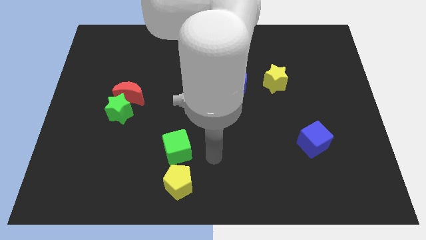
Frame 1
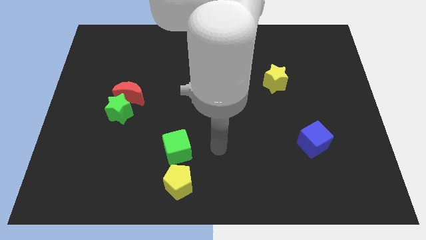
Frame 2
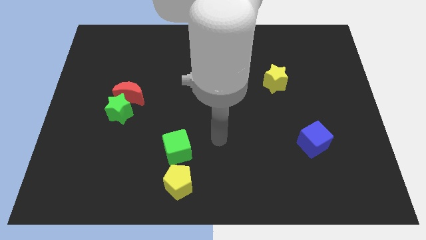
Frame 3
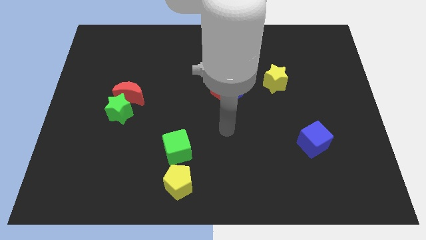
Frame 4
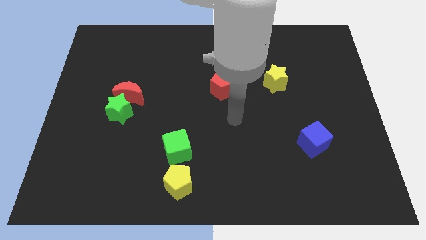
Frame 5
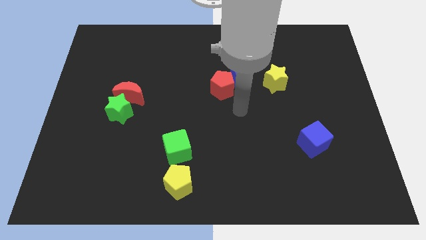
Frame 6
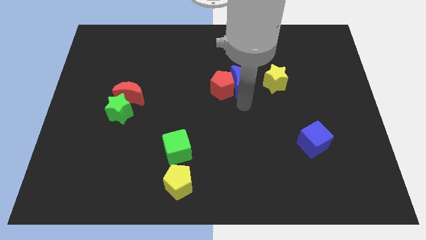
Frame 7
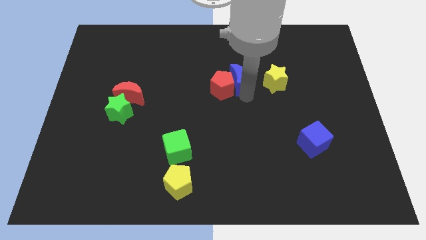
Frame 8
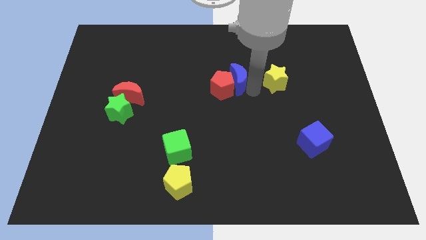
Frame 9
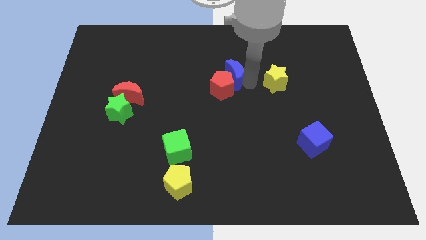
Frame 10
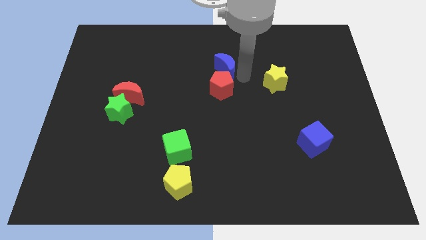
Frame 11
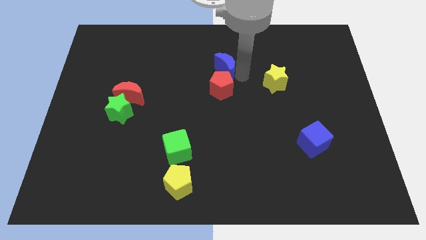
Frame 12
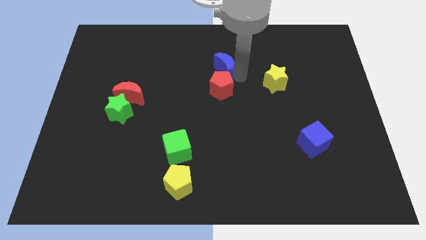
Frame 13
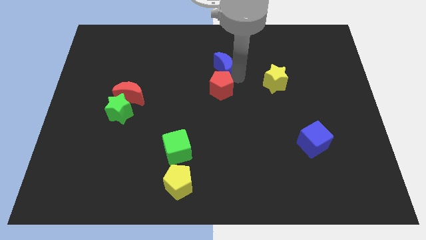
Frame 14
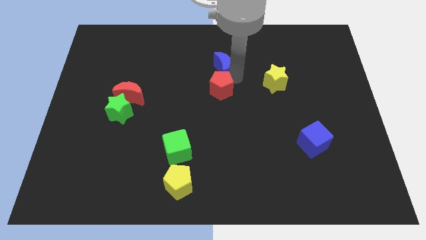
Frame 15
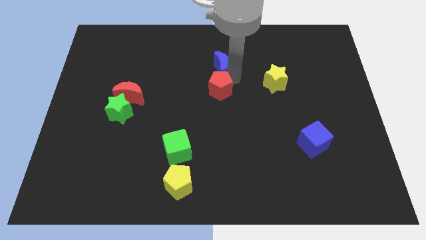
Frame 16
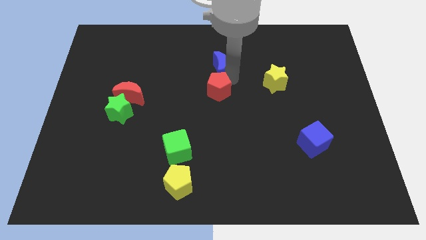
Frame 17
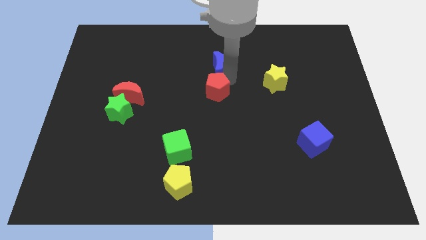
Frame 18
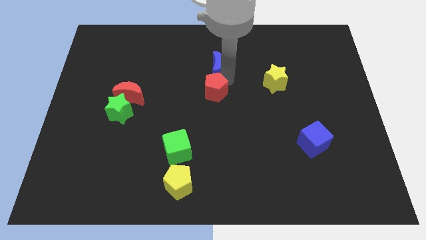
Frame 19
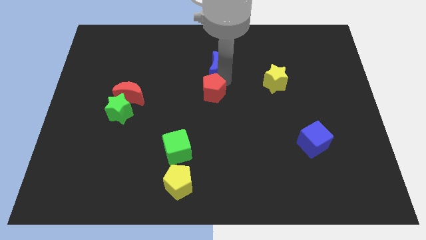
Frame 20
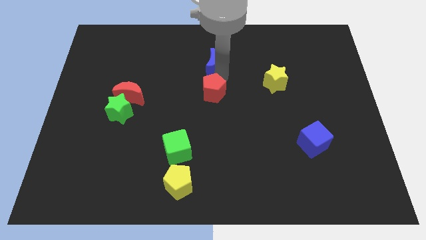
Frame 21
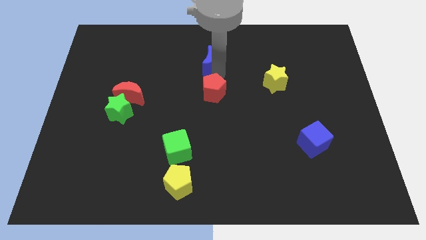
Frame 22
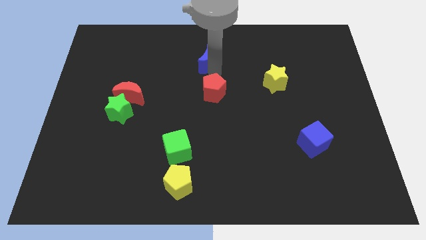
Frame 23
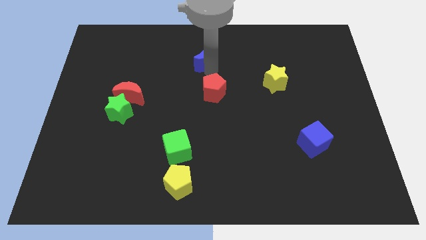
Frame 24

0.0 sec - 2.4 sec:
move the red pentagon away from the blue moon

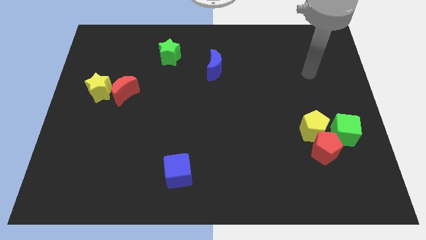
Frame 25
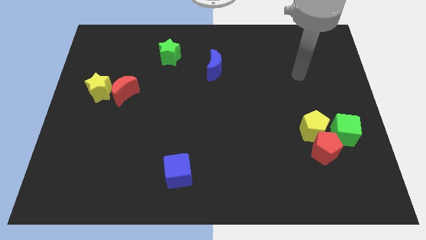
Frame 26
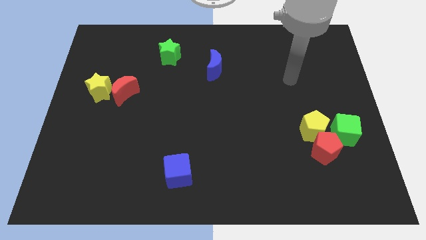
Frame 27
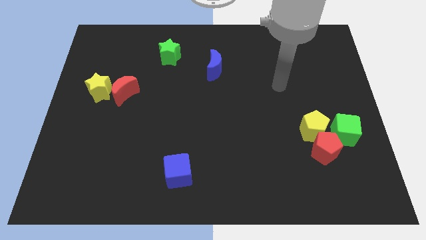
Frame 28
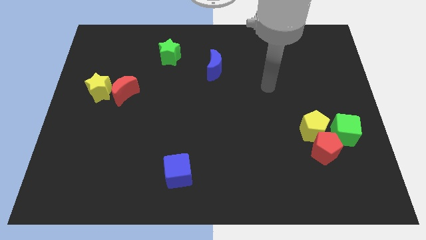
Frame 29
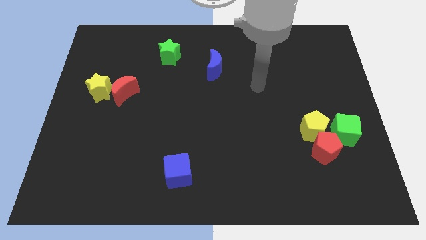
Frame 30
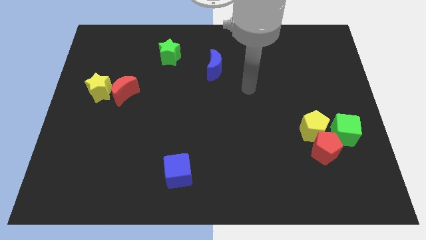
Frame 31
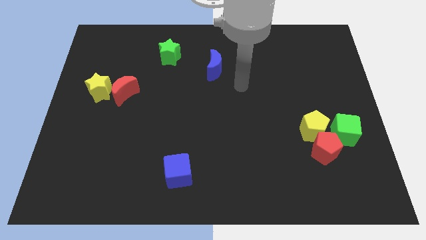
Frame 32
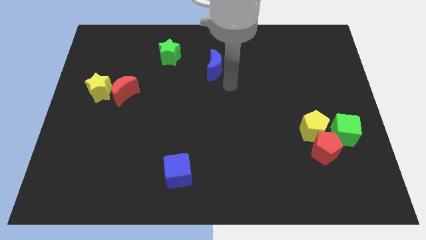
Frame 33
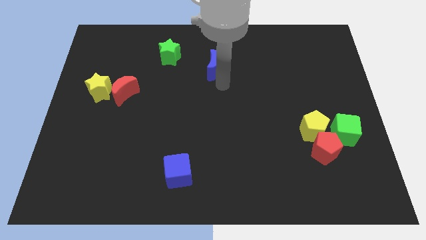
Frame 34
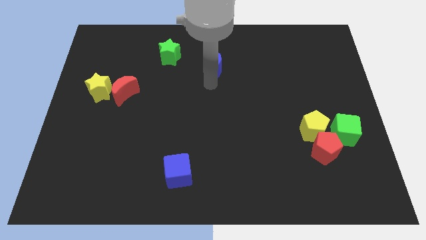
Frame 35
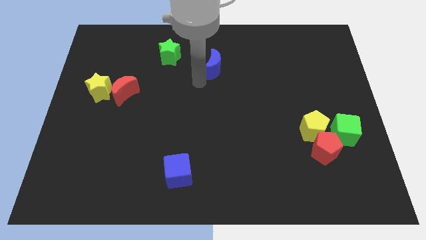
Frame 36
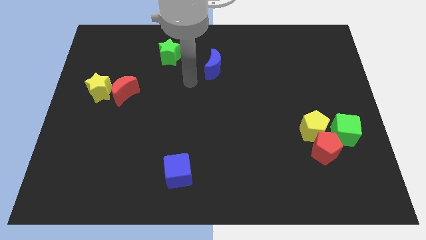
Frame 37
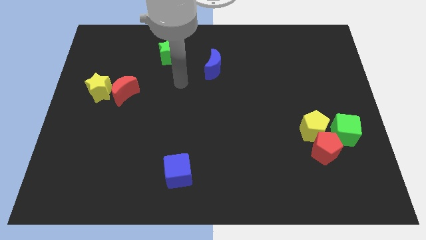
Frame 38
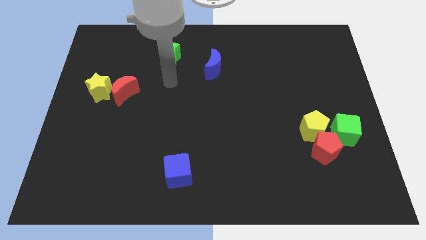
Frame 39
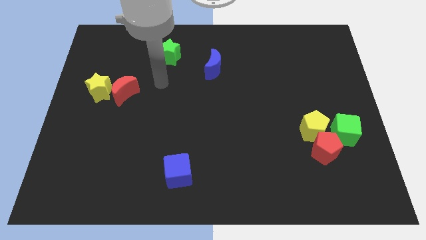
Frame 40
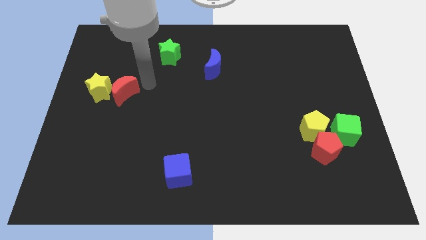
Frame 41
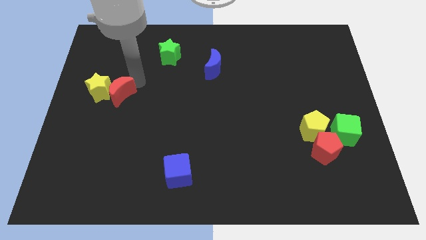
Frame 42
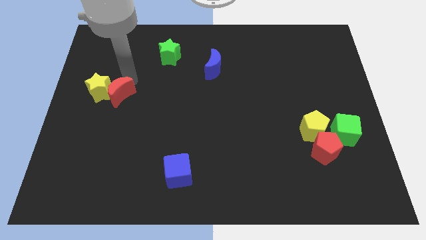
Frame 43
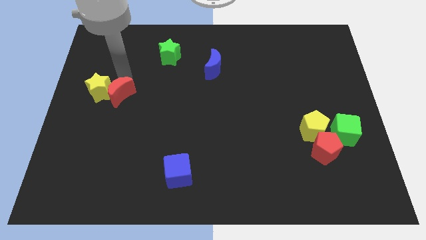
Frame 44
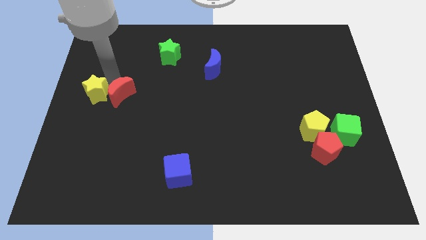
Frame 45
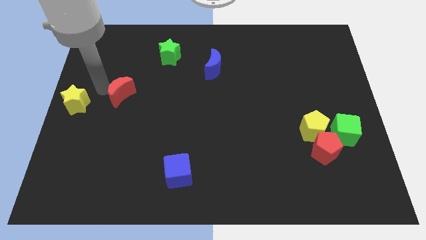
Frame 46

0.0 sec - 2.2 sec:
separate the red moon from the yellow star

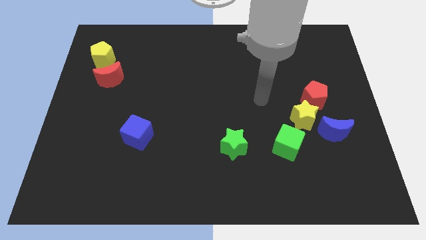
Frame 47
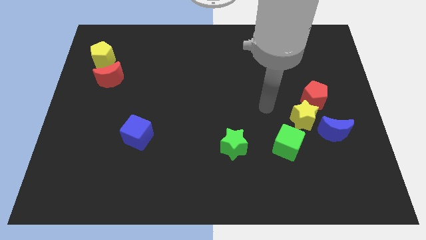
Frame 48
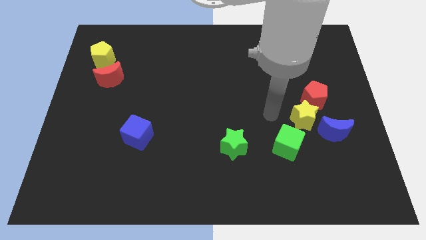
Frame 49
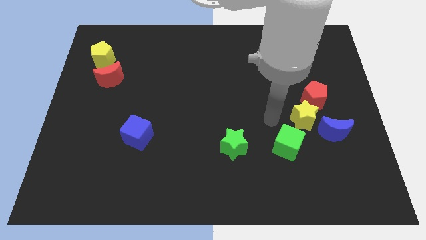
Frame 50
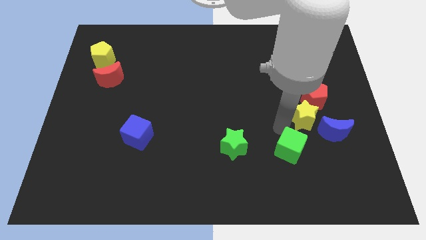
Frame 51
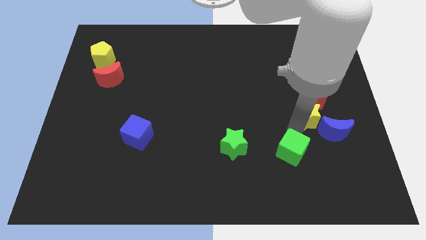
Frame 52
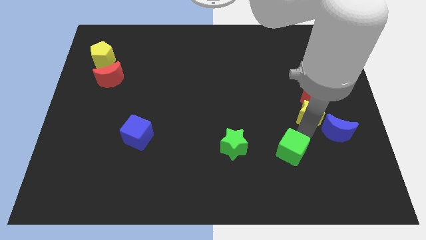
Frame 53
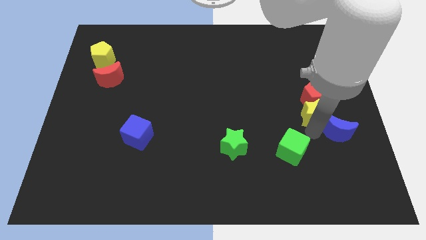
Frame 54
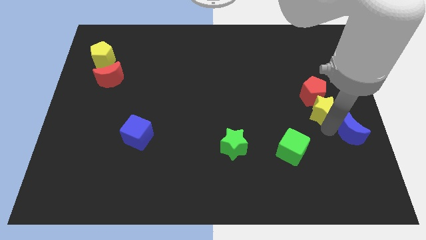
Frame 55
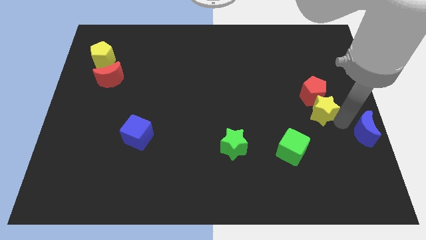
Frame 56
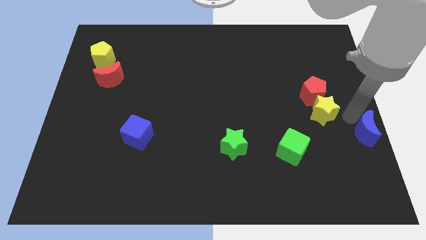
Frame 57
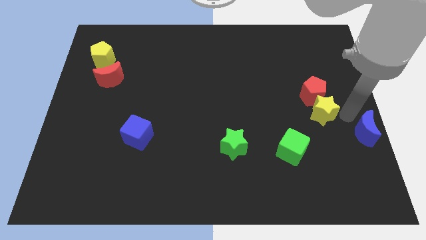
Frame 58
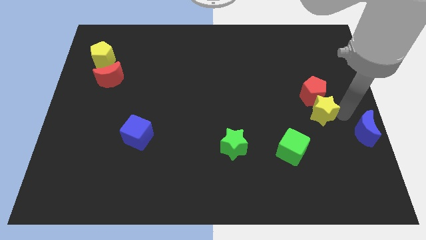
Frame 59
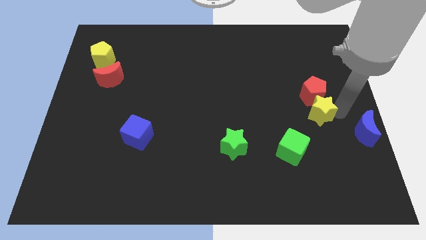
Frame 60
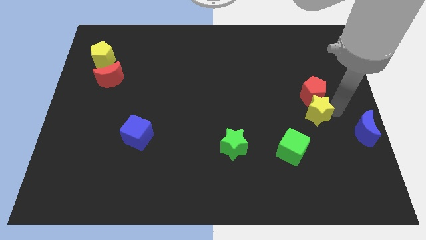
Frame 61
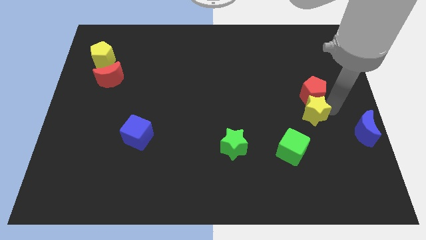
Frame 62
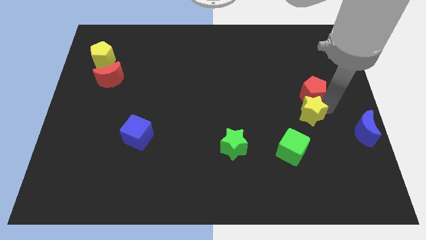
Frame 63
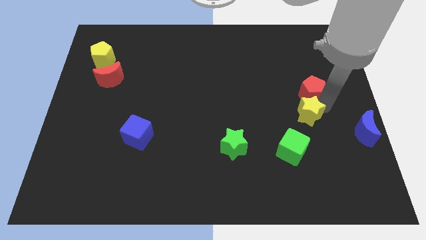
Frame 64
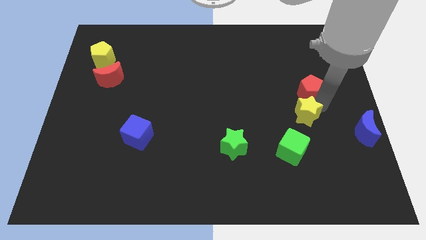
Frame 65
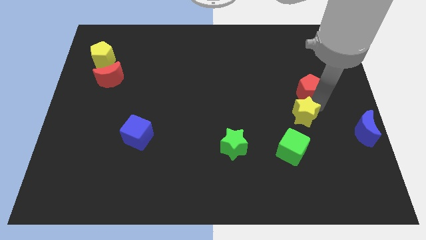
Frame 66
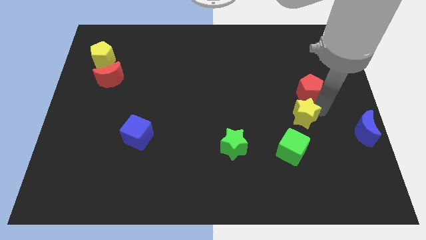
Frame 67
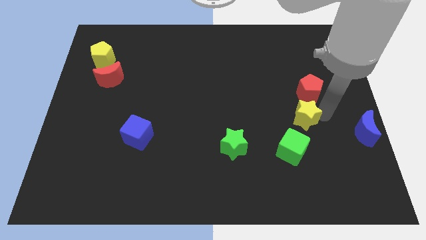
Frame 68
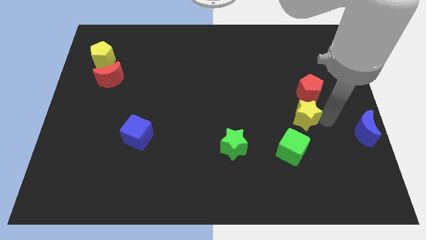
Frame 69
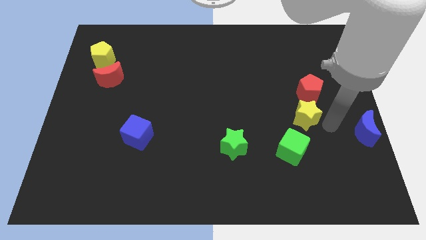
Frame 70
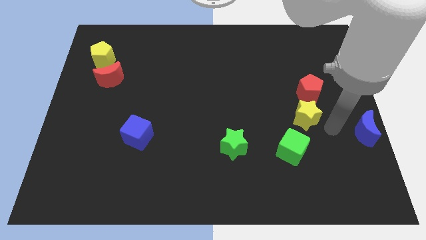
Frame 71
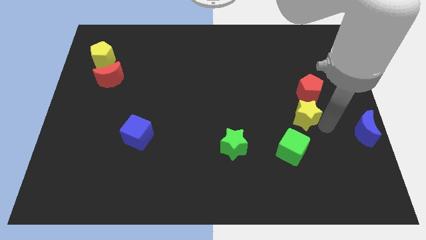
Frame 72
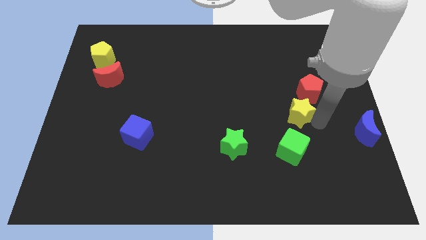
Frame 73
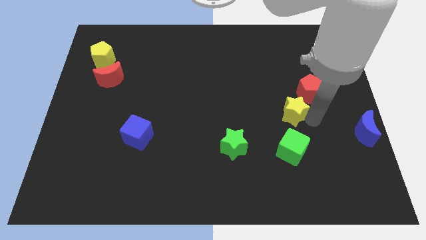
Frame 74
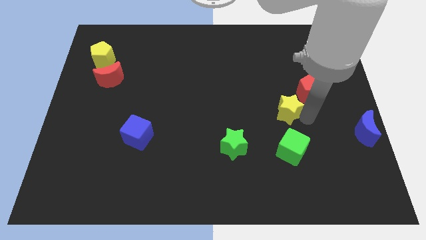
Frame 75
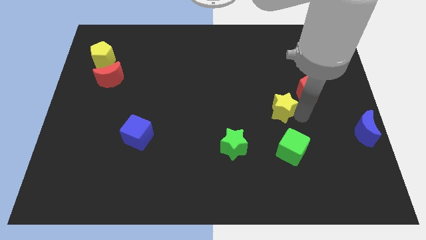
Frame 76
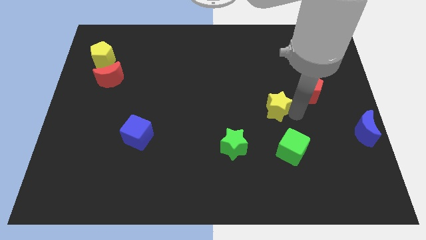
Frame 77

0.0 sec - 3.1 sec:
pull the yellow star apart from the clump

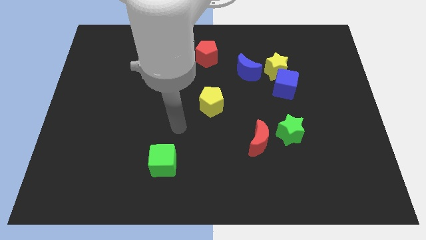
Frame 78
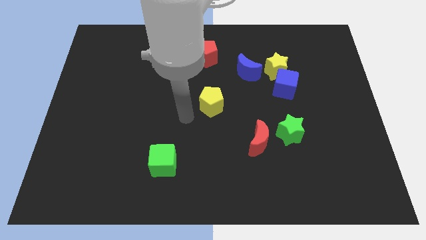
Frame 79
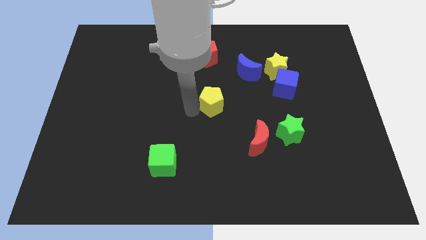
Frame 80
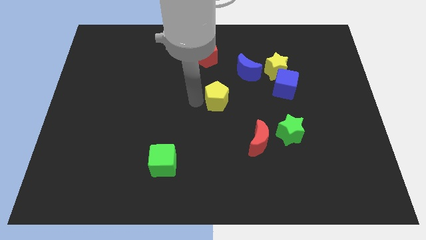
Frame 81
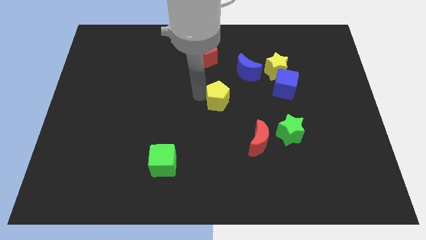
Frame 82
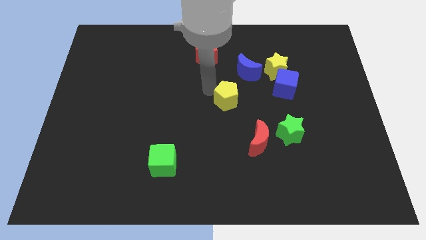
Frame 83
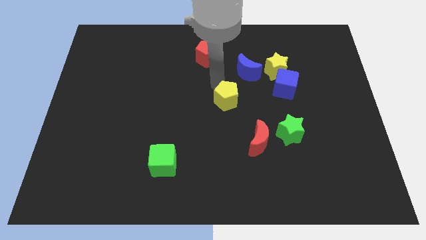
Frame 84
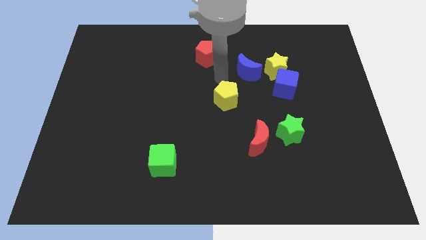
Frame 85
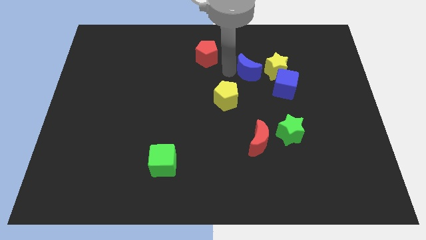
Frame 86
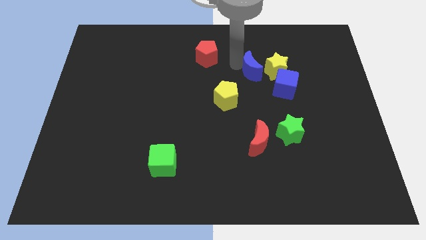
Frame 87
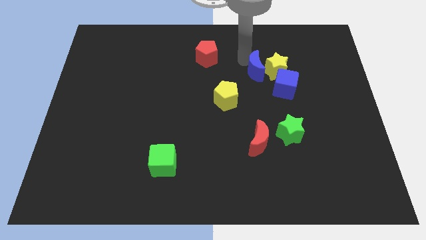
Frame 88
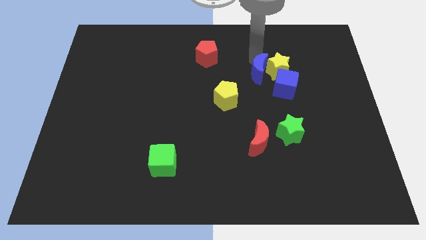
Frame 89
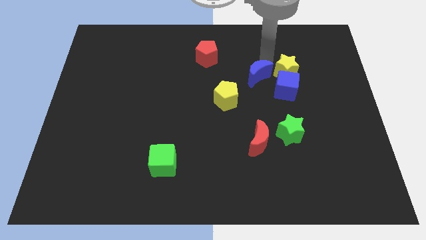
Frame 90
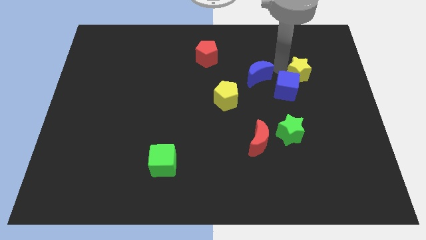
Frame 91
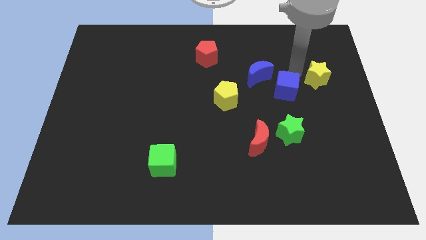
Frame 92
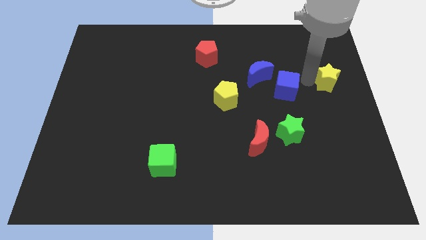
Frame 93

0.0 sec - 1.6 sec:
move the blue cube away from the yellow star
